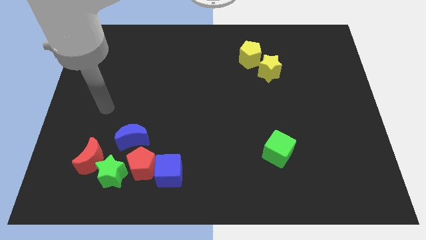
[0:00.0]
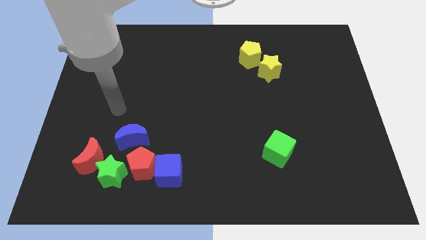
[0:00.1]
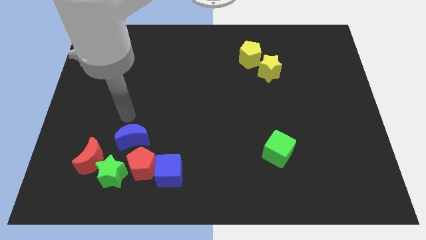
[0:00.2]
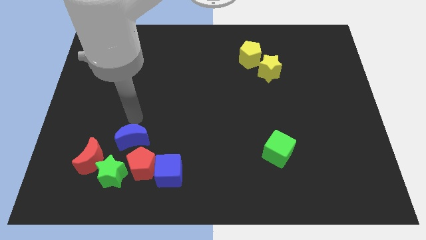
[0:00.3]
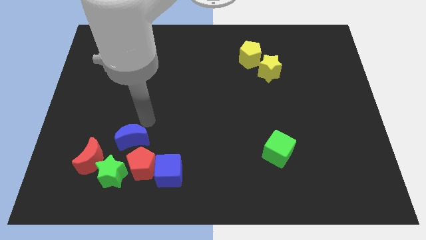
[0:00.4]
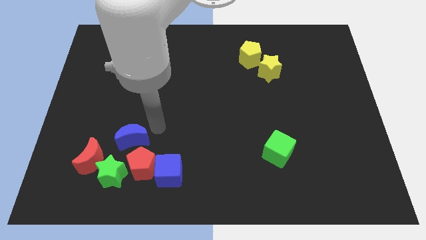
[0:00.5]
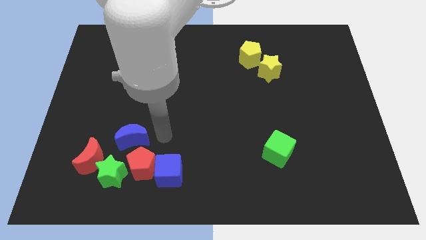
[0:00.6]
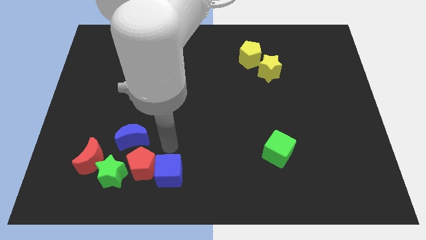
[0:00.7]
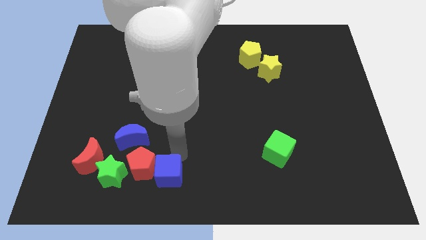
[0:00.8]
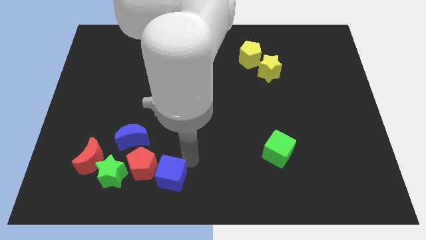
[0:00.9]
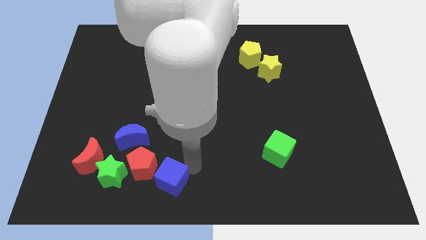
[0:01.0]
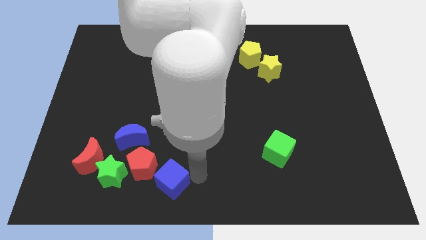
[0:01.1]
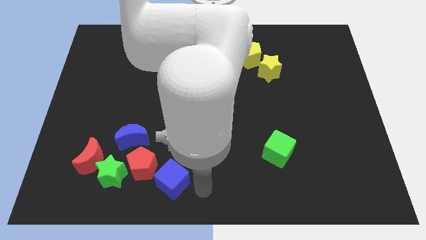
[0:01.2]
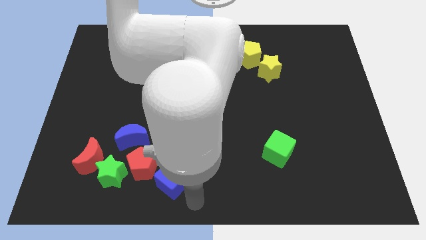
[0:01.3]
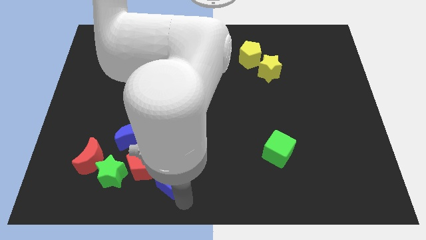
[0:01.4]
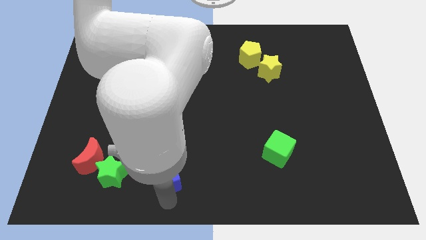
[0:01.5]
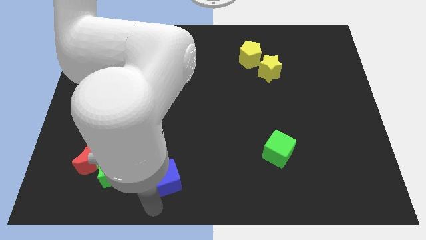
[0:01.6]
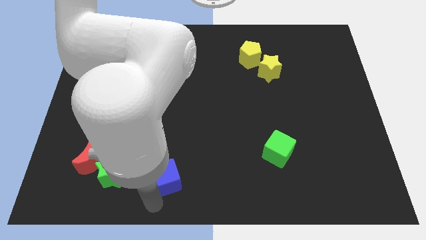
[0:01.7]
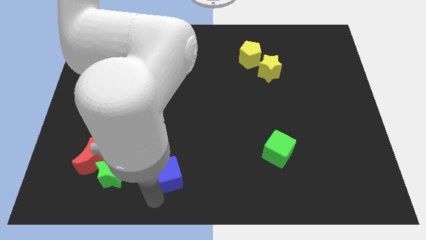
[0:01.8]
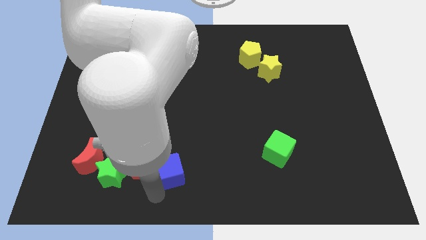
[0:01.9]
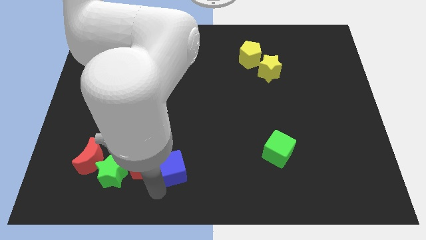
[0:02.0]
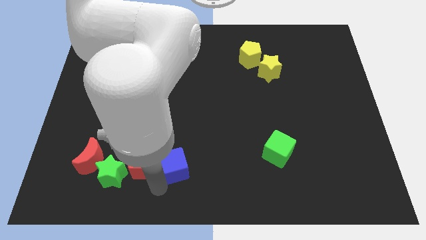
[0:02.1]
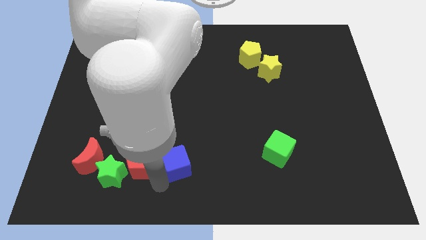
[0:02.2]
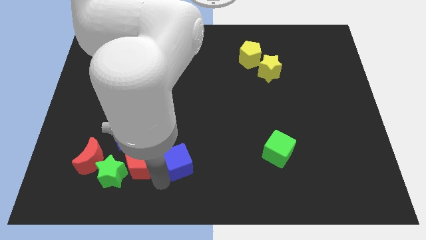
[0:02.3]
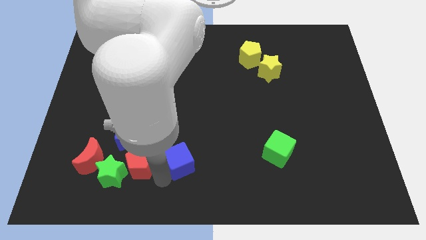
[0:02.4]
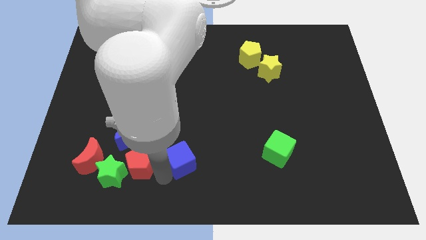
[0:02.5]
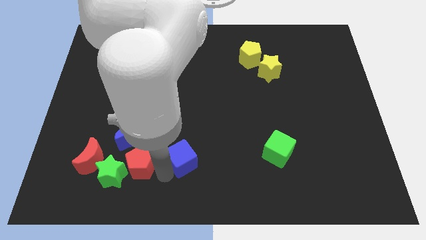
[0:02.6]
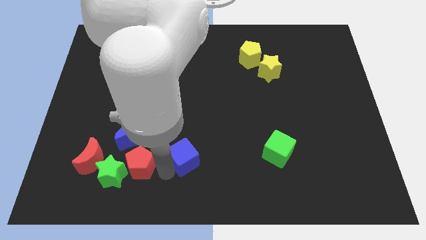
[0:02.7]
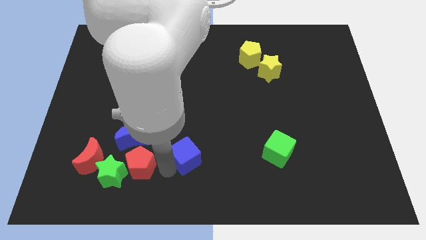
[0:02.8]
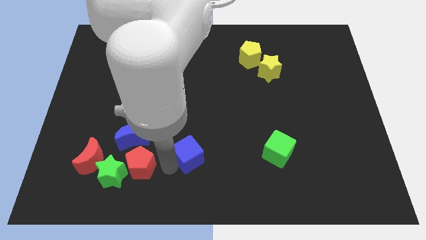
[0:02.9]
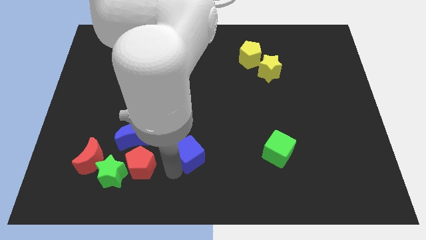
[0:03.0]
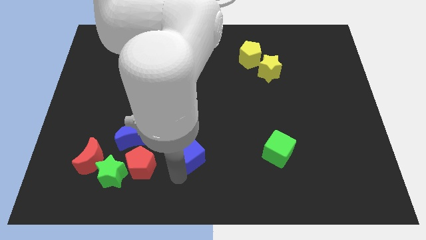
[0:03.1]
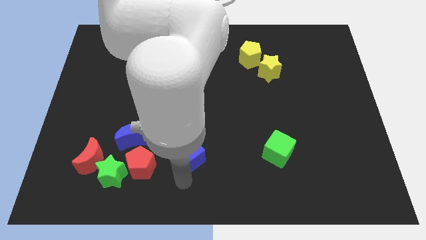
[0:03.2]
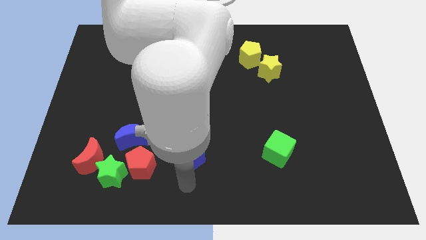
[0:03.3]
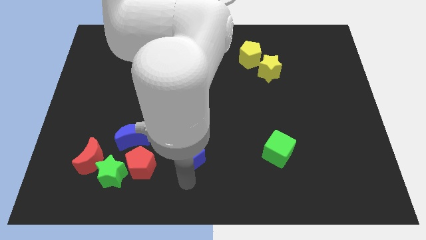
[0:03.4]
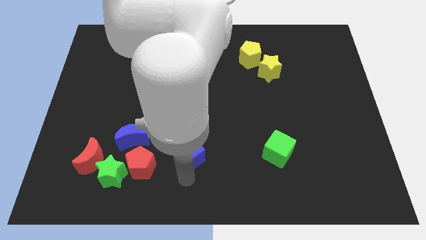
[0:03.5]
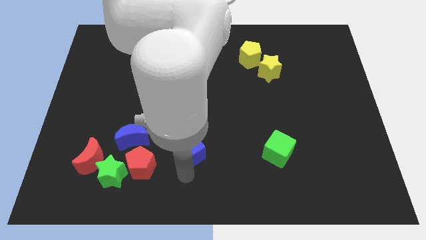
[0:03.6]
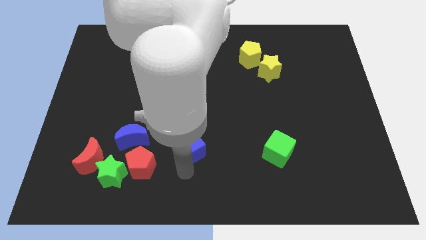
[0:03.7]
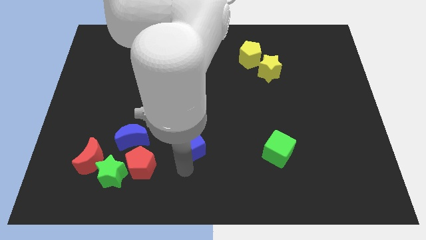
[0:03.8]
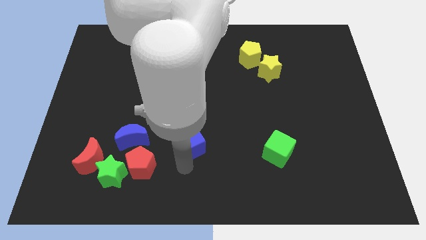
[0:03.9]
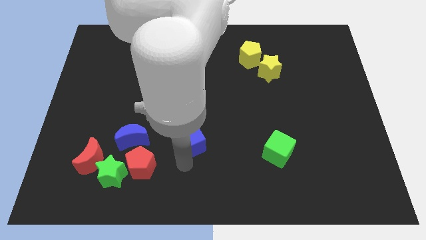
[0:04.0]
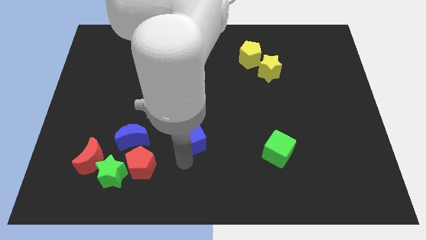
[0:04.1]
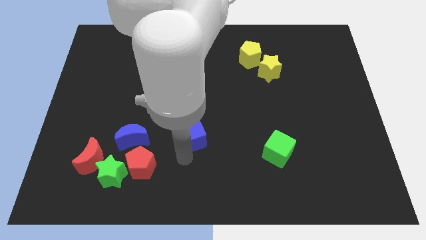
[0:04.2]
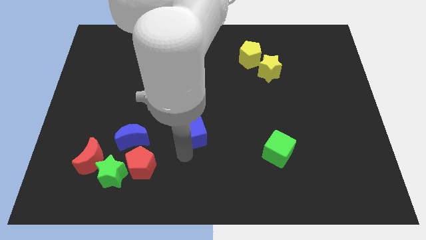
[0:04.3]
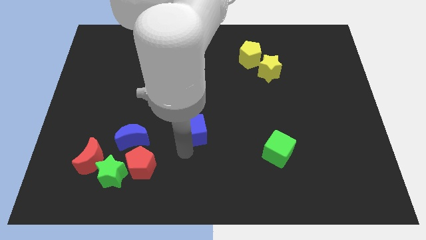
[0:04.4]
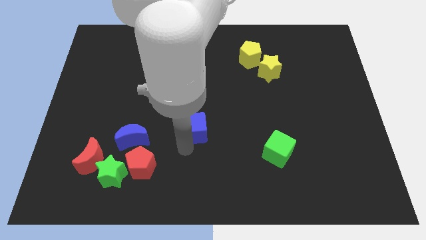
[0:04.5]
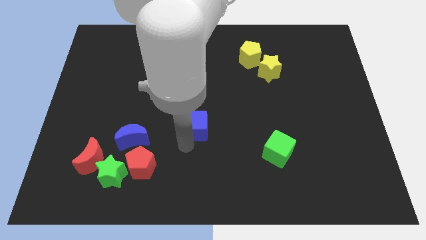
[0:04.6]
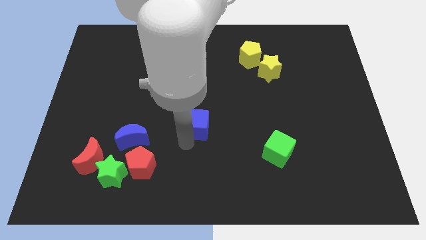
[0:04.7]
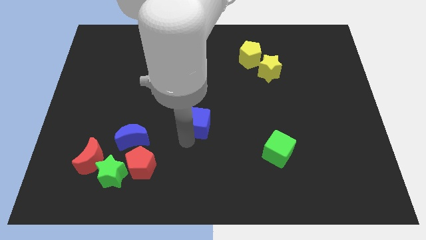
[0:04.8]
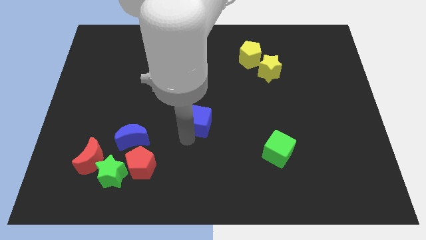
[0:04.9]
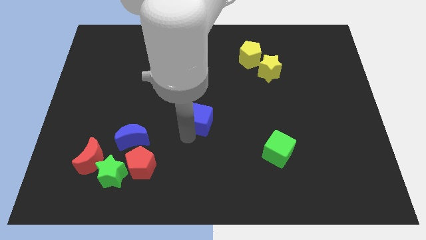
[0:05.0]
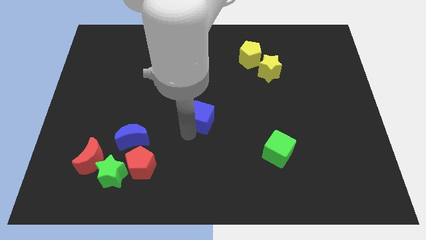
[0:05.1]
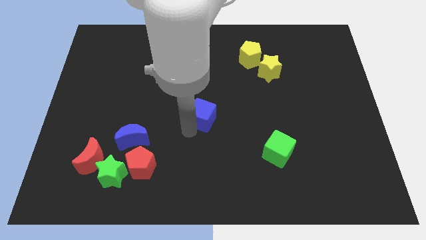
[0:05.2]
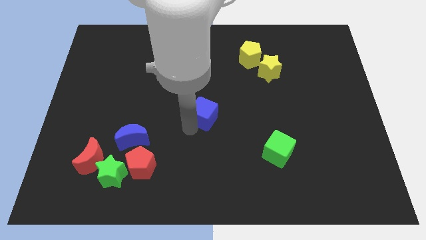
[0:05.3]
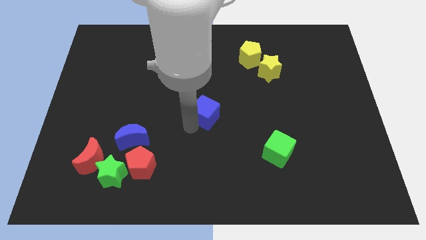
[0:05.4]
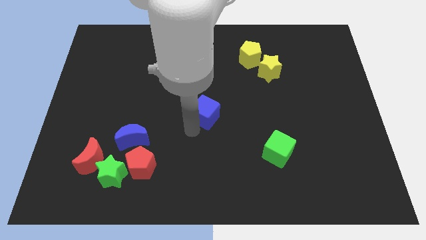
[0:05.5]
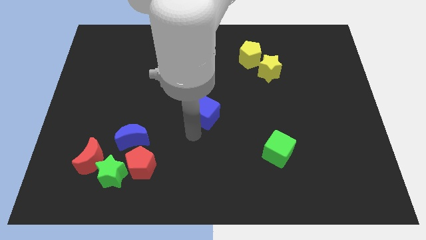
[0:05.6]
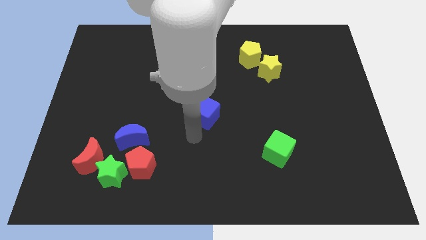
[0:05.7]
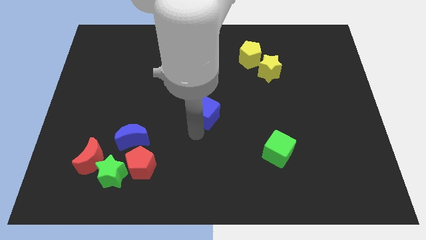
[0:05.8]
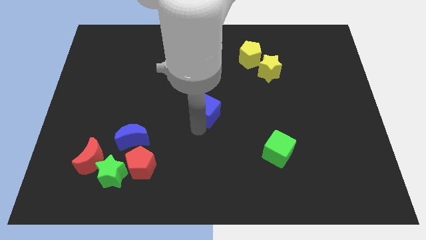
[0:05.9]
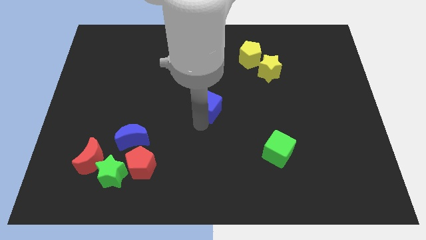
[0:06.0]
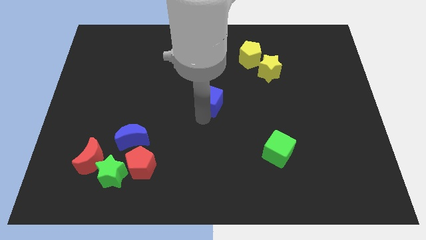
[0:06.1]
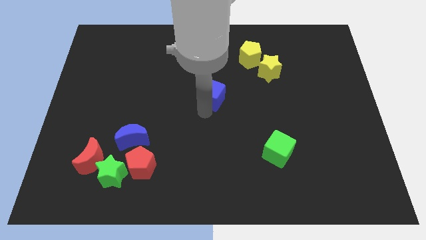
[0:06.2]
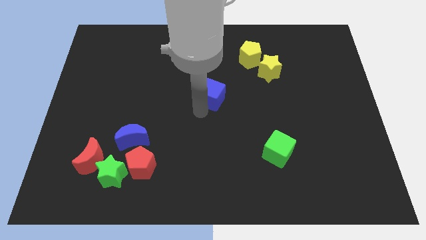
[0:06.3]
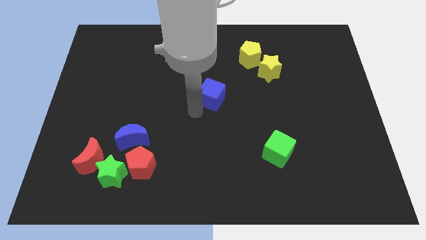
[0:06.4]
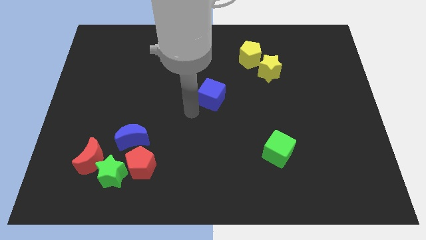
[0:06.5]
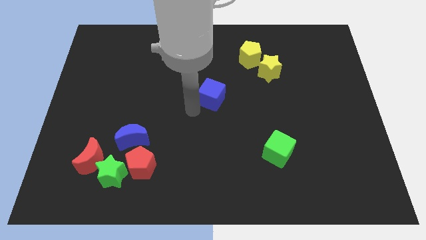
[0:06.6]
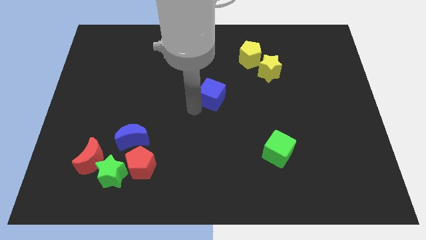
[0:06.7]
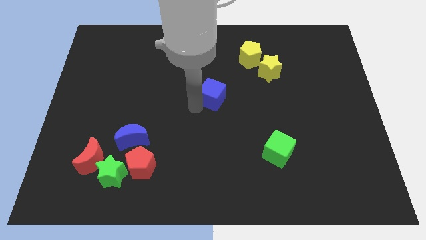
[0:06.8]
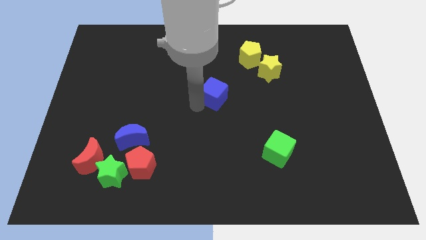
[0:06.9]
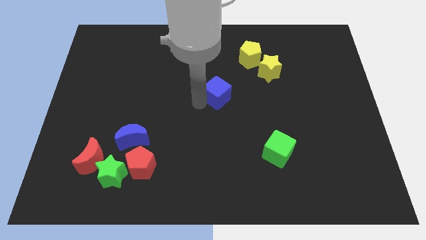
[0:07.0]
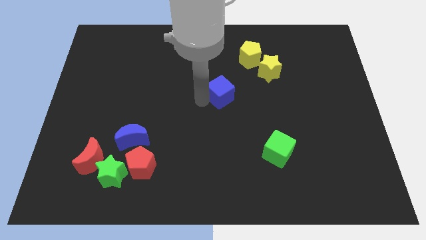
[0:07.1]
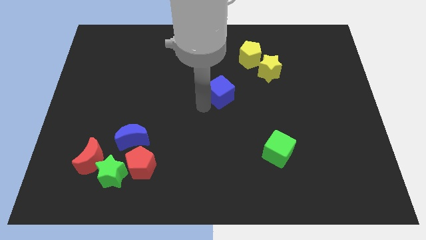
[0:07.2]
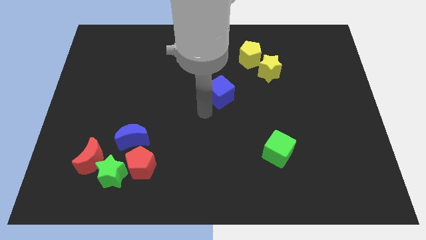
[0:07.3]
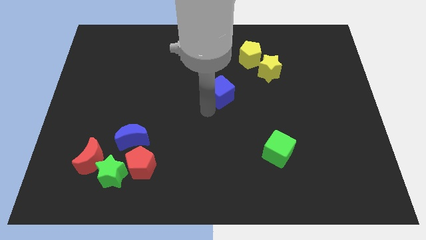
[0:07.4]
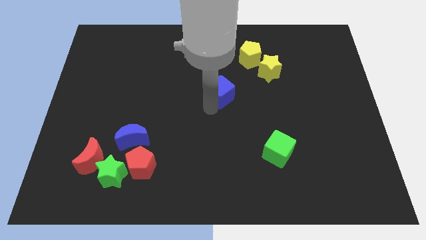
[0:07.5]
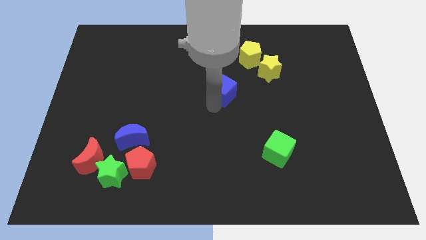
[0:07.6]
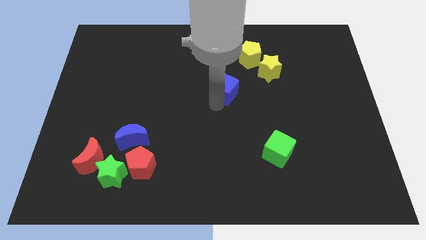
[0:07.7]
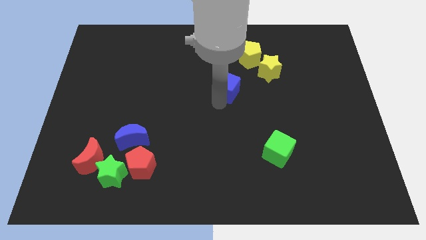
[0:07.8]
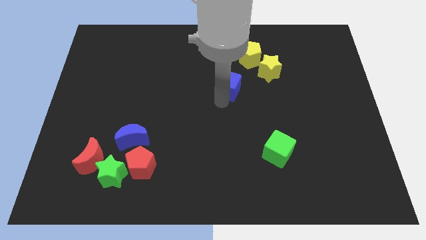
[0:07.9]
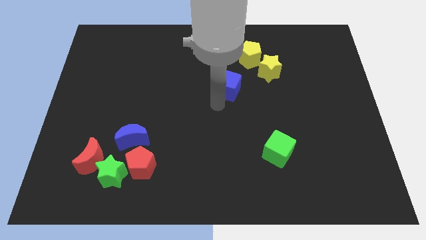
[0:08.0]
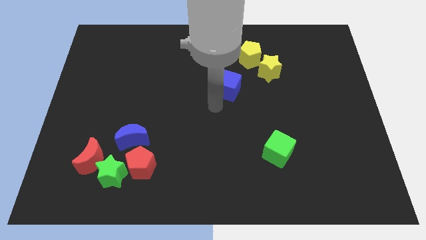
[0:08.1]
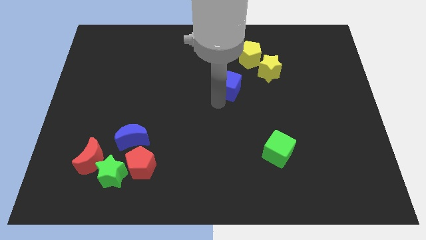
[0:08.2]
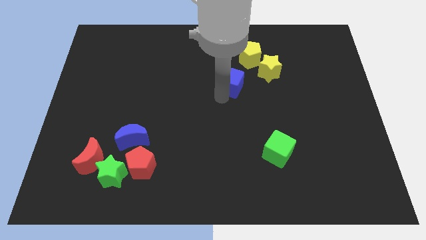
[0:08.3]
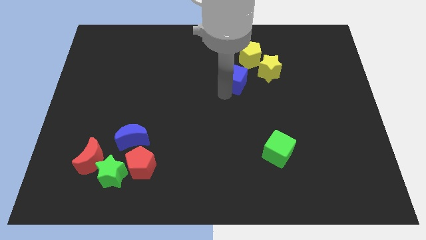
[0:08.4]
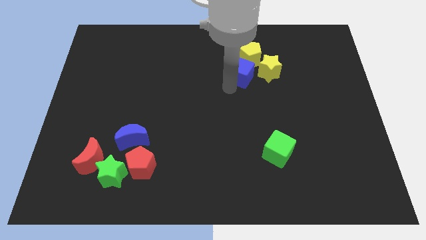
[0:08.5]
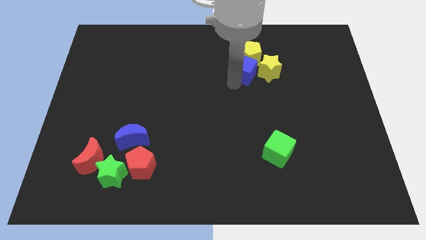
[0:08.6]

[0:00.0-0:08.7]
move the blue cube next to the yellow pentagon
